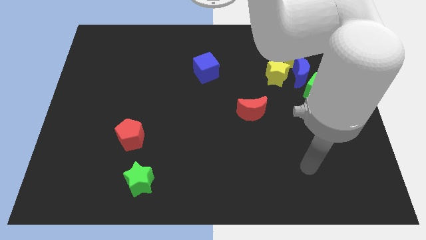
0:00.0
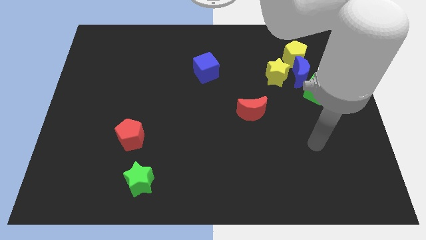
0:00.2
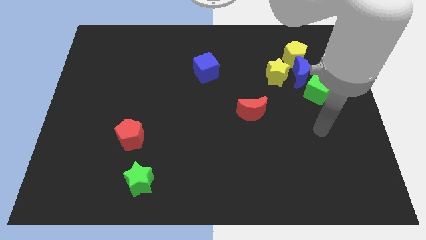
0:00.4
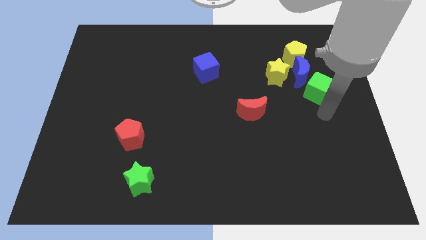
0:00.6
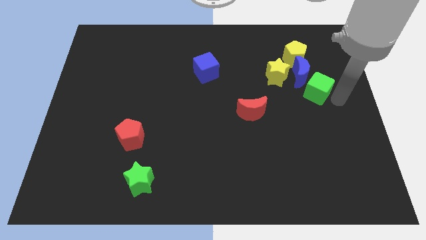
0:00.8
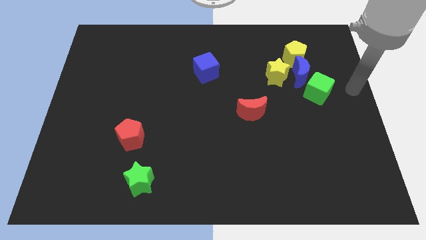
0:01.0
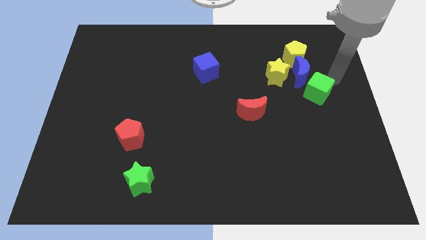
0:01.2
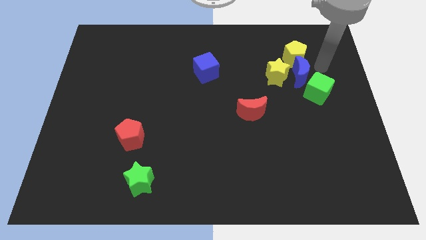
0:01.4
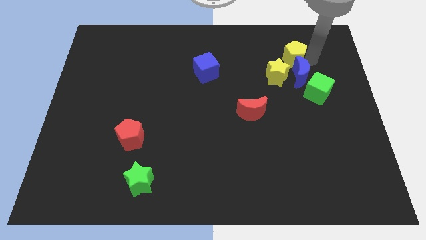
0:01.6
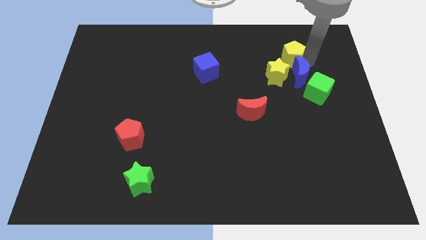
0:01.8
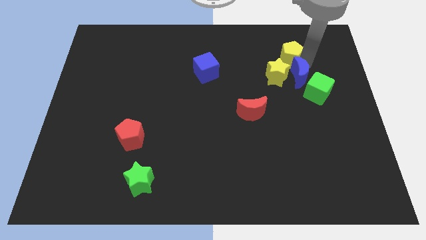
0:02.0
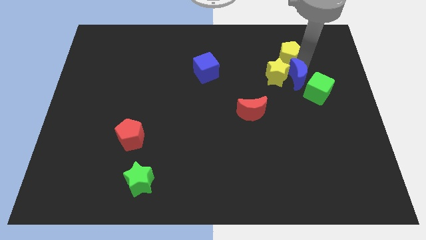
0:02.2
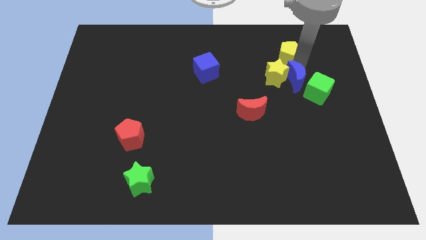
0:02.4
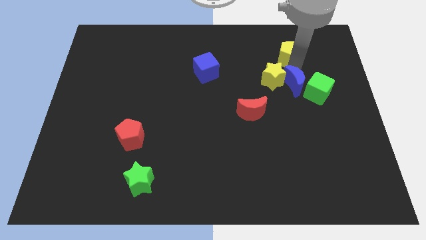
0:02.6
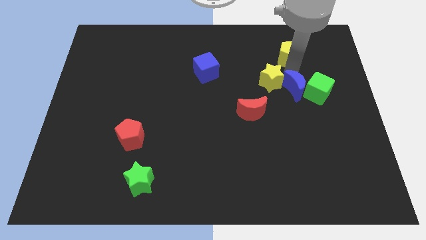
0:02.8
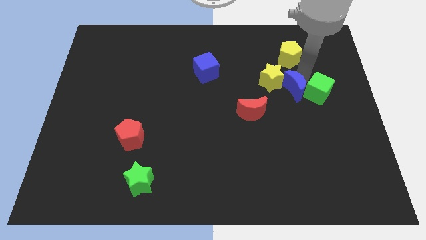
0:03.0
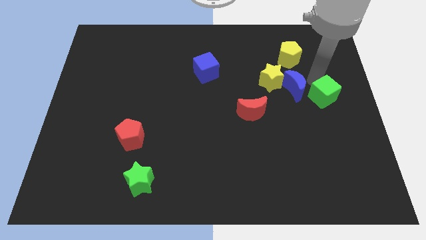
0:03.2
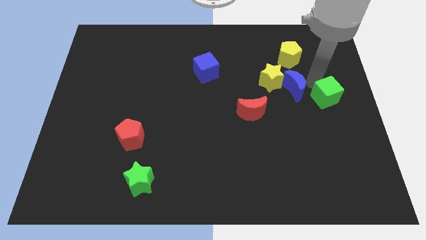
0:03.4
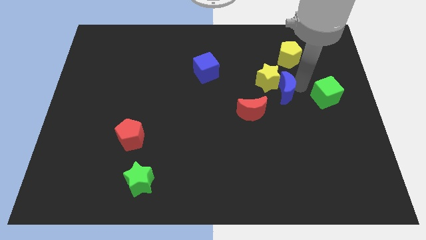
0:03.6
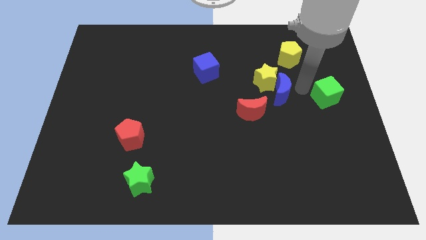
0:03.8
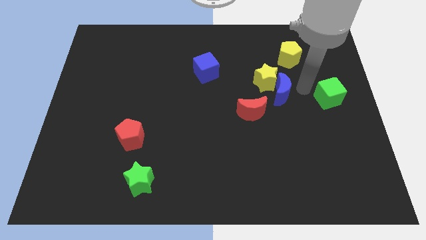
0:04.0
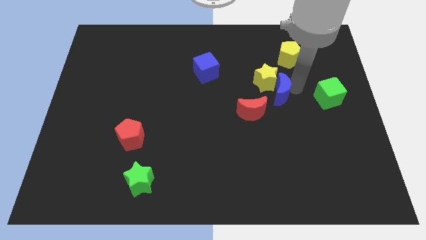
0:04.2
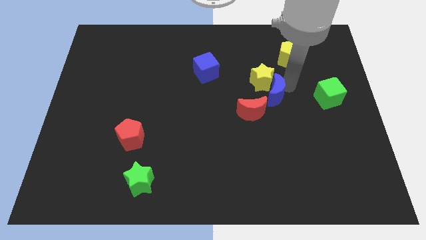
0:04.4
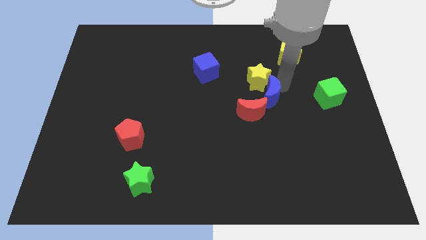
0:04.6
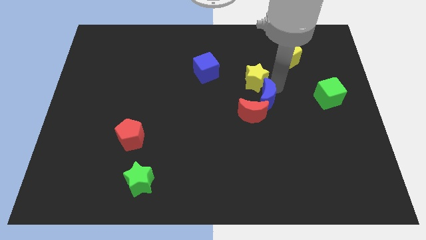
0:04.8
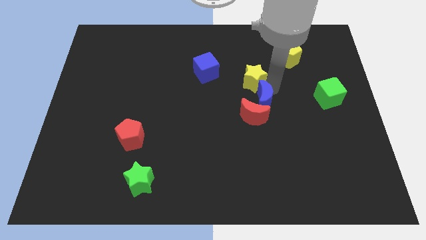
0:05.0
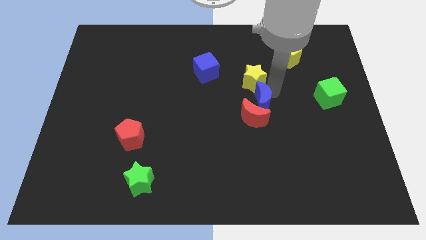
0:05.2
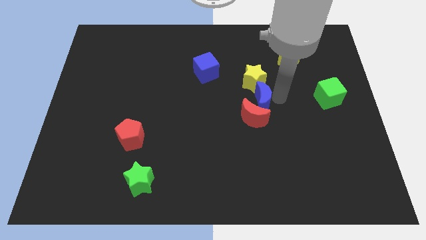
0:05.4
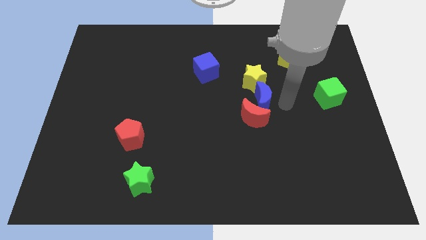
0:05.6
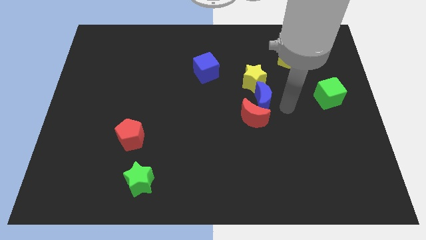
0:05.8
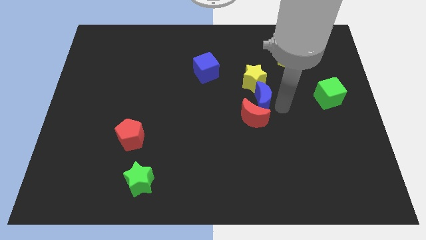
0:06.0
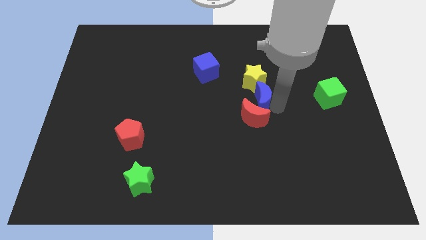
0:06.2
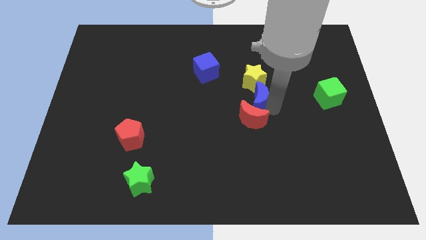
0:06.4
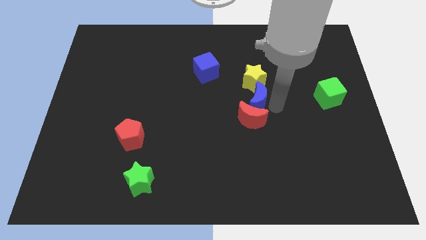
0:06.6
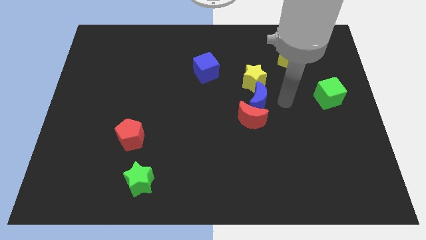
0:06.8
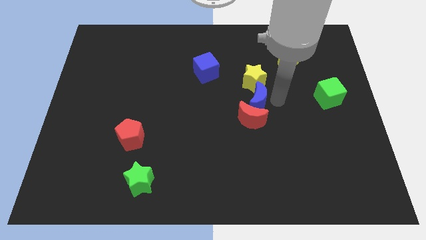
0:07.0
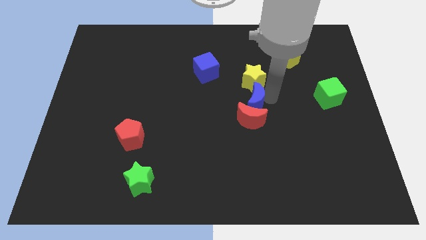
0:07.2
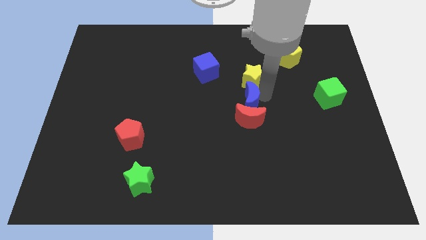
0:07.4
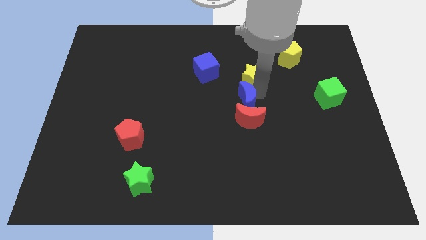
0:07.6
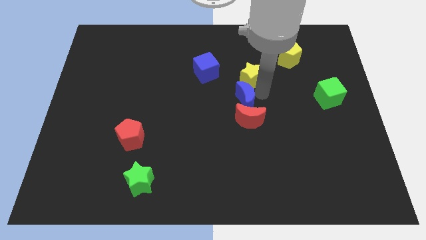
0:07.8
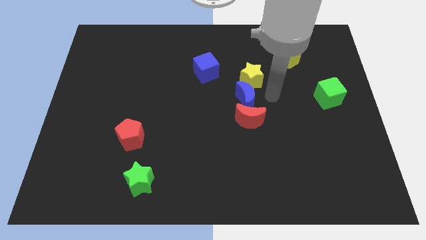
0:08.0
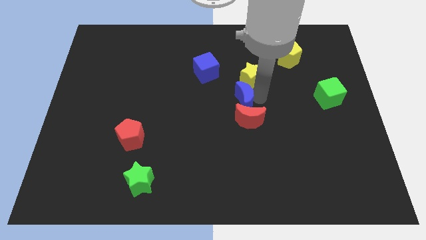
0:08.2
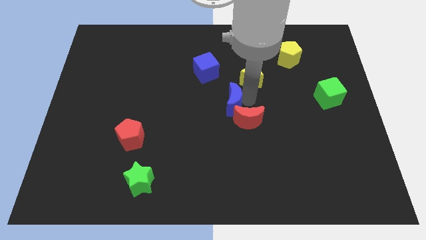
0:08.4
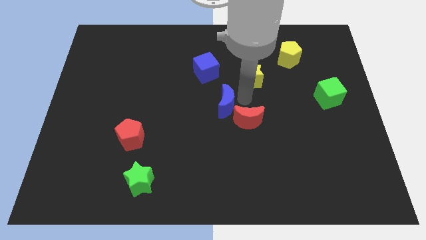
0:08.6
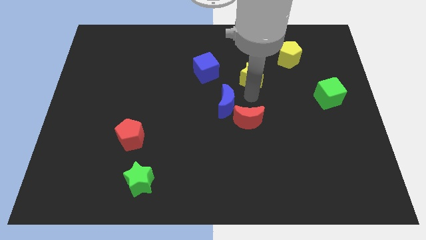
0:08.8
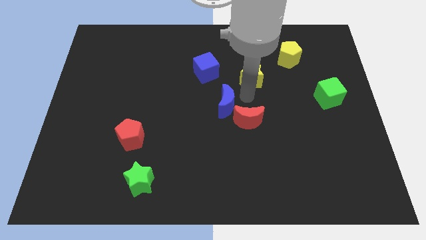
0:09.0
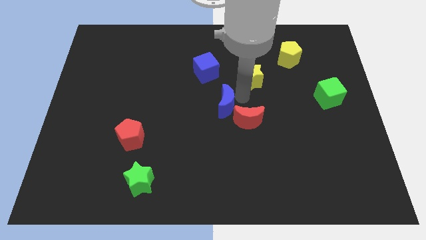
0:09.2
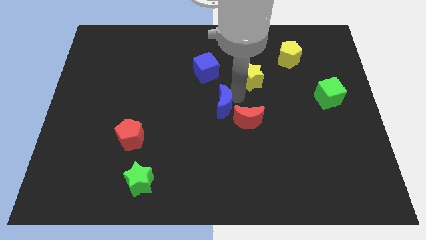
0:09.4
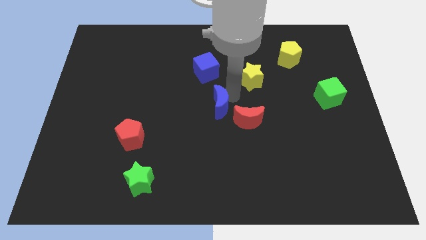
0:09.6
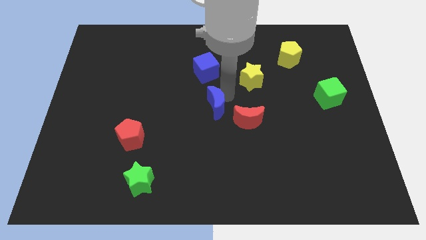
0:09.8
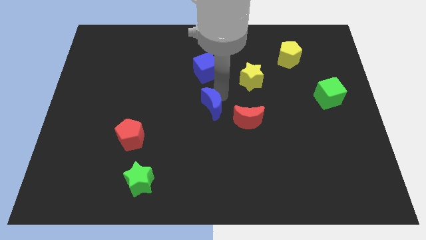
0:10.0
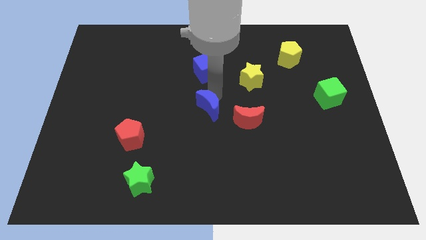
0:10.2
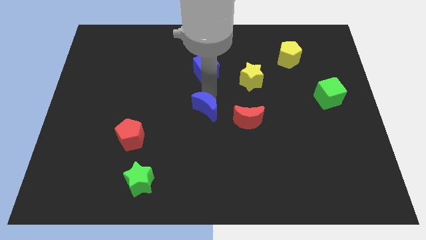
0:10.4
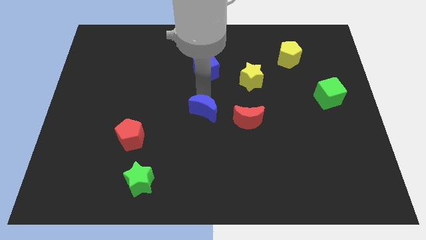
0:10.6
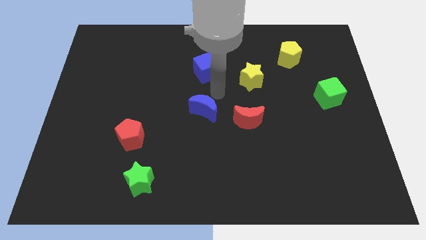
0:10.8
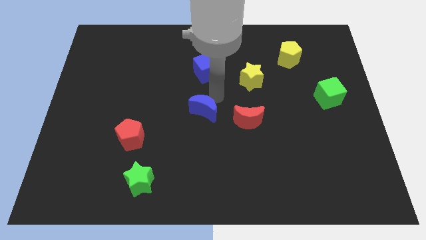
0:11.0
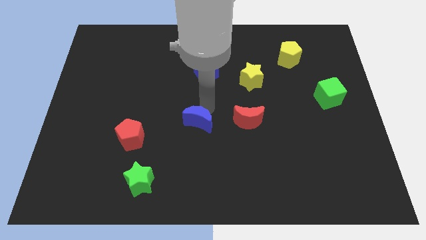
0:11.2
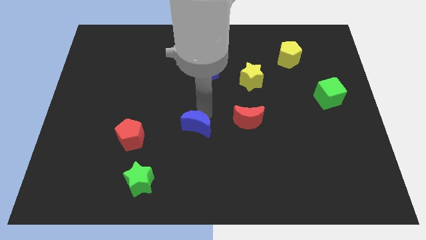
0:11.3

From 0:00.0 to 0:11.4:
move the blue moon to the right of the red pentagon

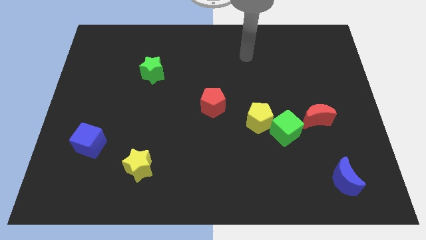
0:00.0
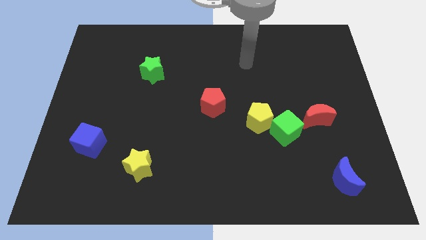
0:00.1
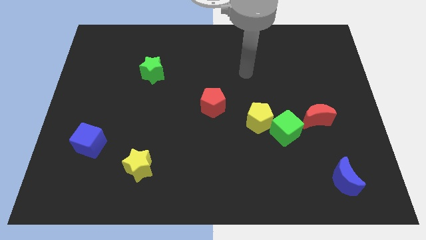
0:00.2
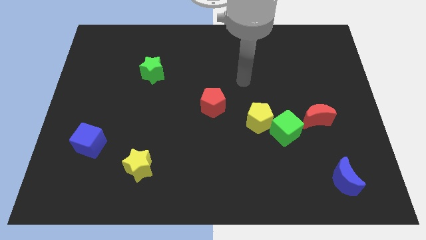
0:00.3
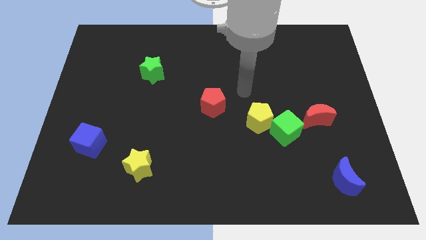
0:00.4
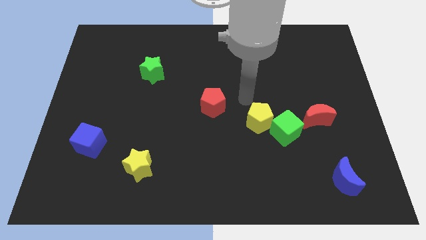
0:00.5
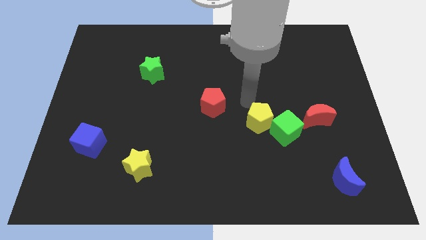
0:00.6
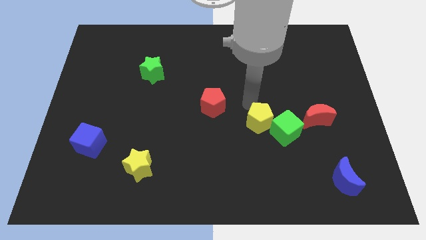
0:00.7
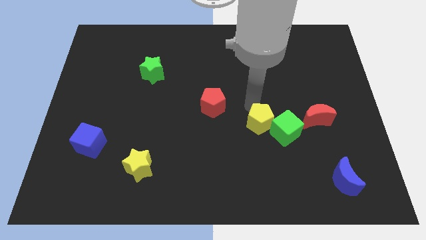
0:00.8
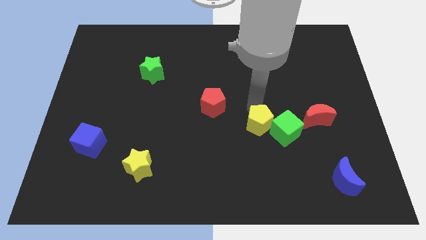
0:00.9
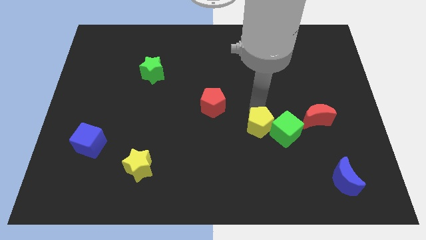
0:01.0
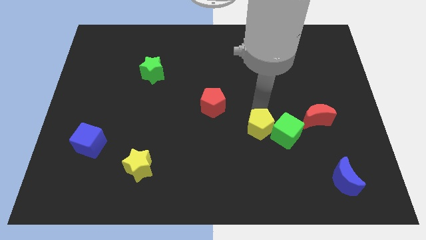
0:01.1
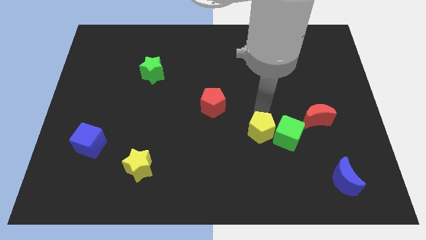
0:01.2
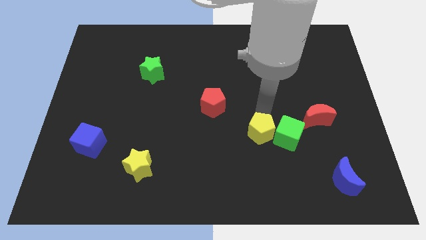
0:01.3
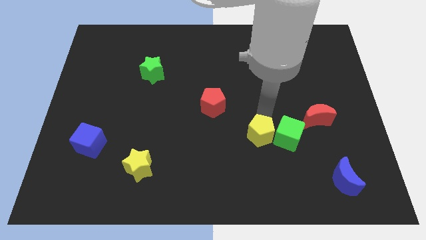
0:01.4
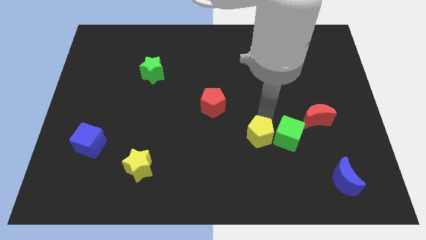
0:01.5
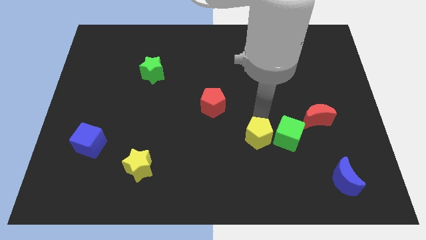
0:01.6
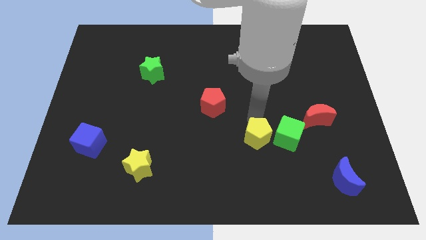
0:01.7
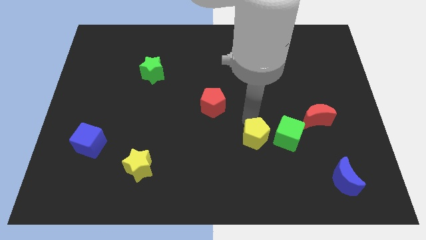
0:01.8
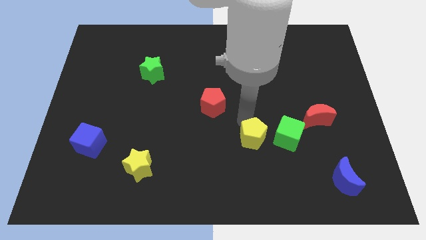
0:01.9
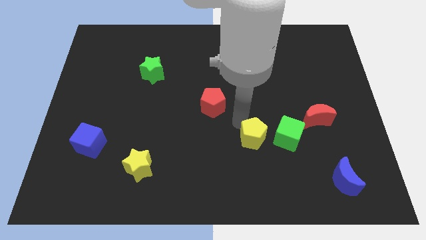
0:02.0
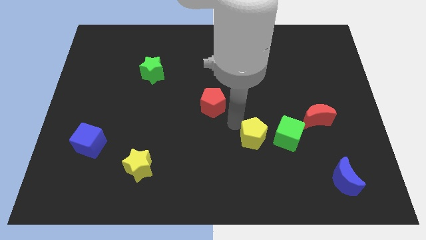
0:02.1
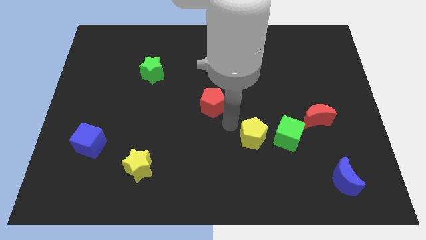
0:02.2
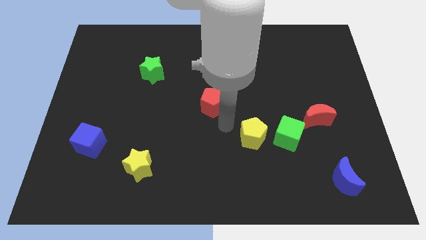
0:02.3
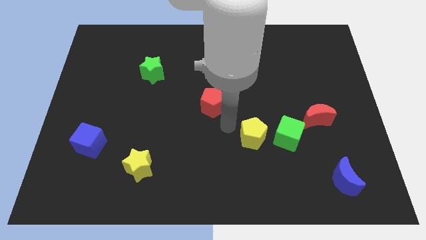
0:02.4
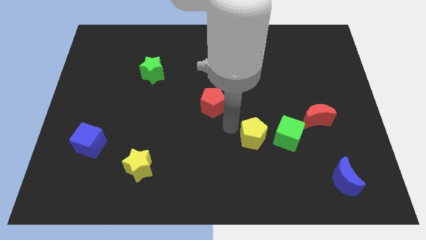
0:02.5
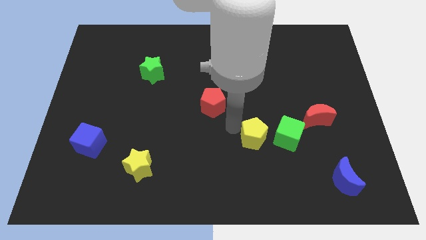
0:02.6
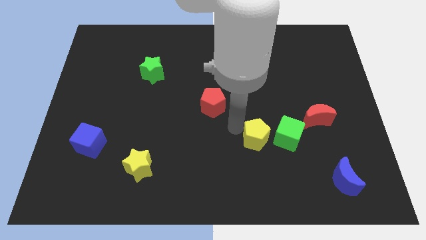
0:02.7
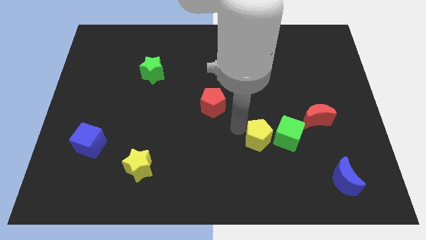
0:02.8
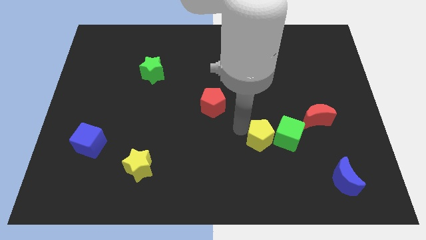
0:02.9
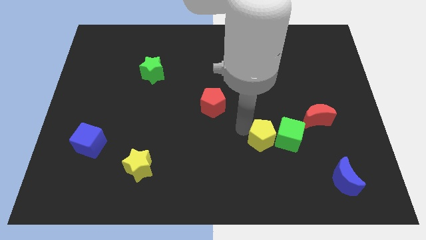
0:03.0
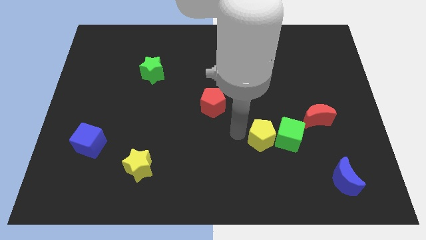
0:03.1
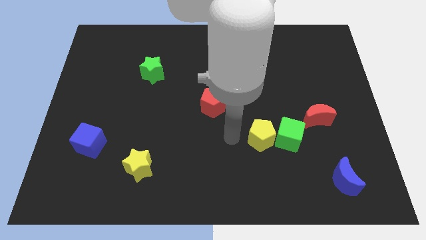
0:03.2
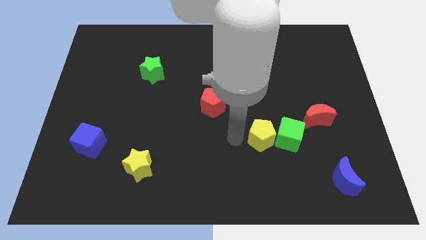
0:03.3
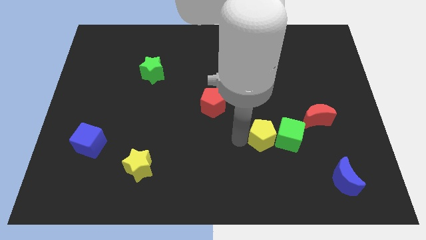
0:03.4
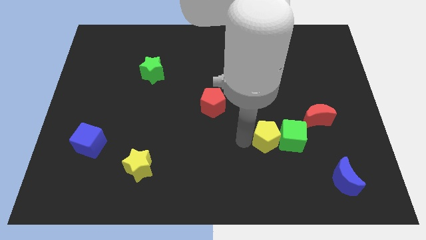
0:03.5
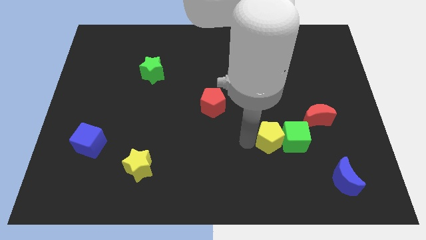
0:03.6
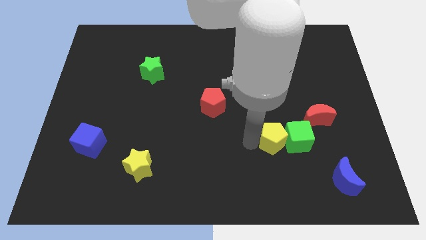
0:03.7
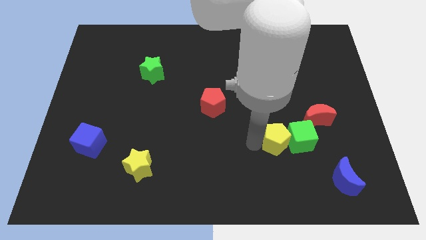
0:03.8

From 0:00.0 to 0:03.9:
slide the yellow pentagon to the bottom left side of the red moon
